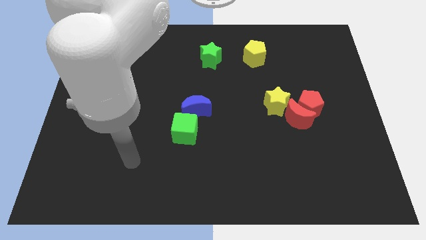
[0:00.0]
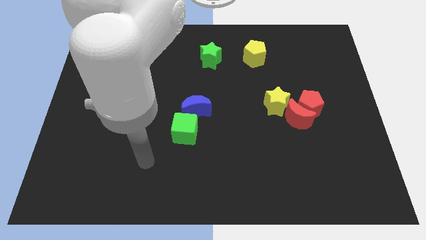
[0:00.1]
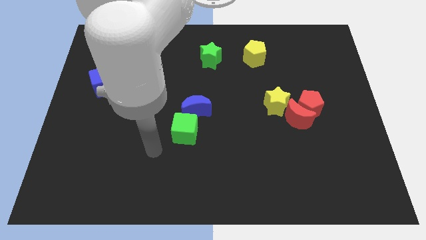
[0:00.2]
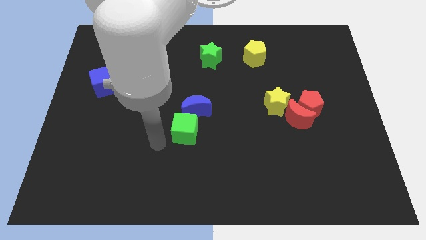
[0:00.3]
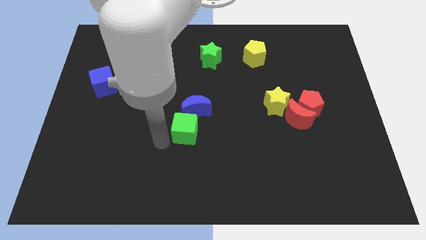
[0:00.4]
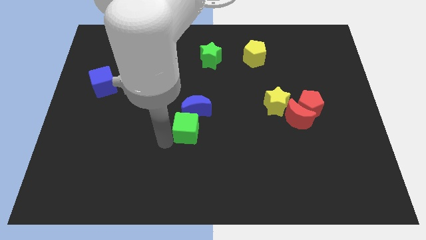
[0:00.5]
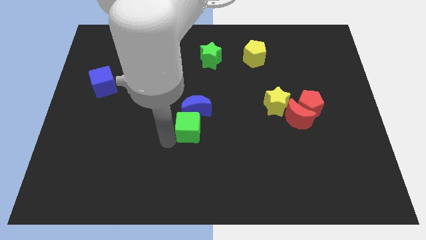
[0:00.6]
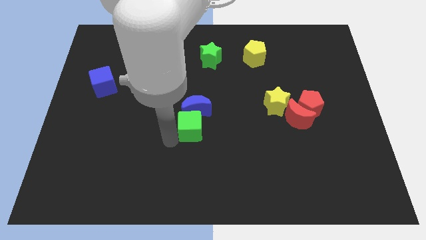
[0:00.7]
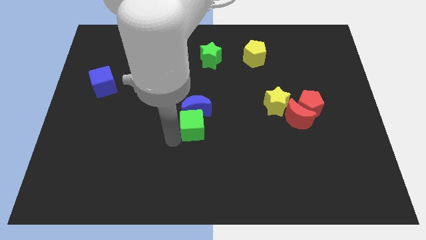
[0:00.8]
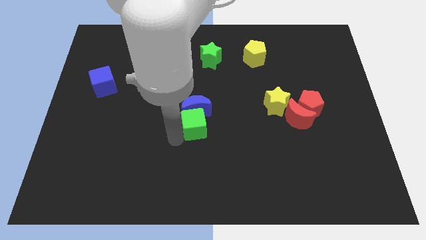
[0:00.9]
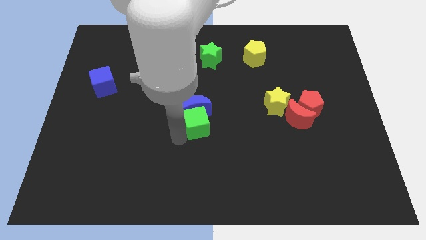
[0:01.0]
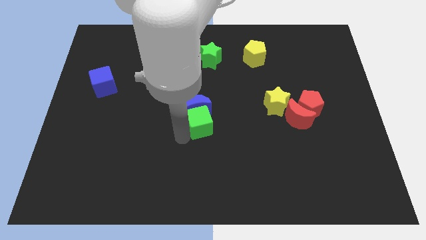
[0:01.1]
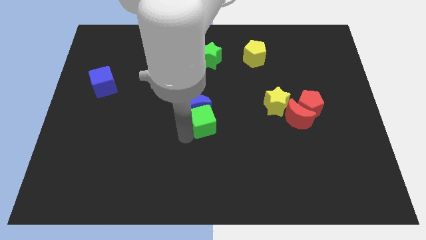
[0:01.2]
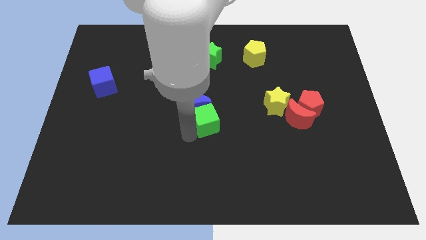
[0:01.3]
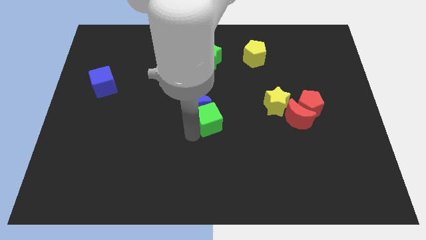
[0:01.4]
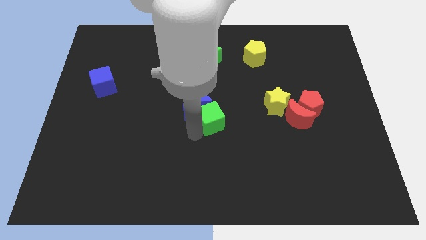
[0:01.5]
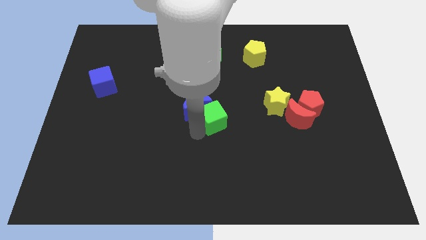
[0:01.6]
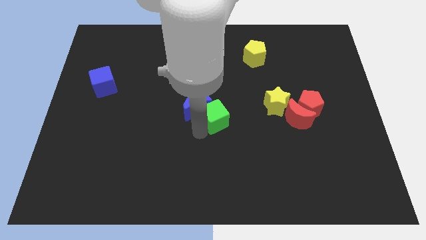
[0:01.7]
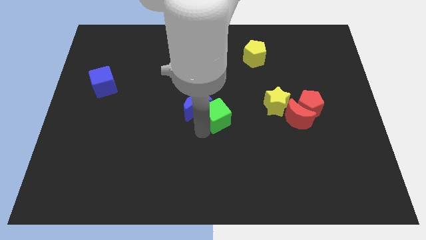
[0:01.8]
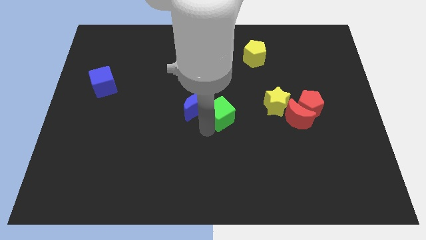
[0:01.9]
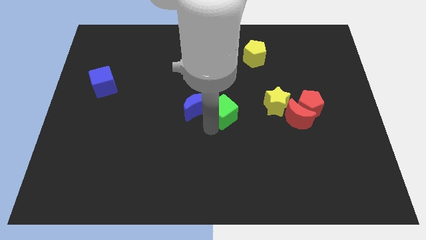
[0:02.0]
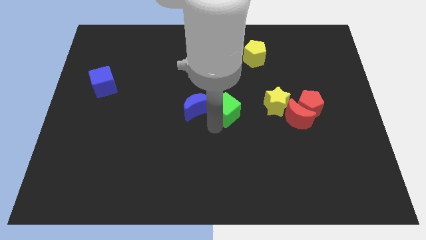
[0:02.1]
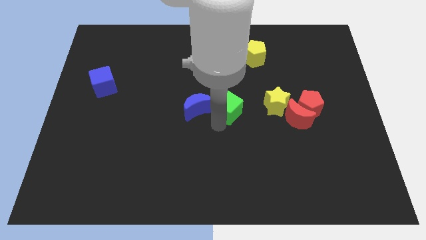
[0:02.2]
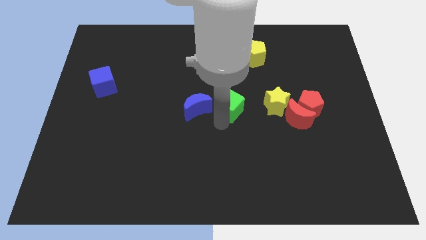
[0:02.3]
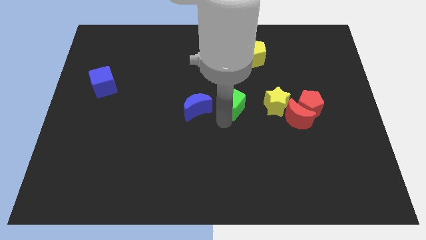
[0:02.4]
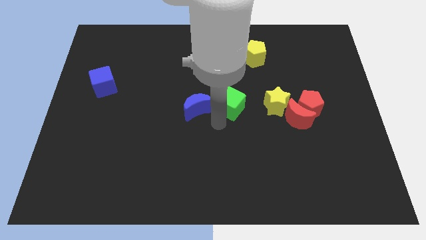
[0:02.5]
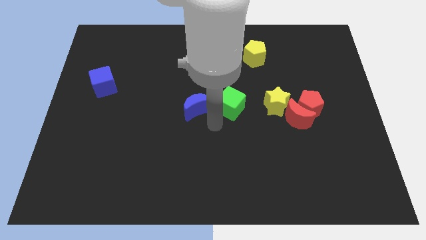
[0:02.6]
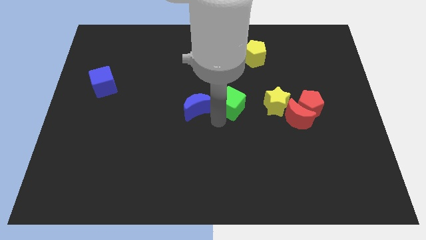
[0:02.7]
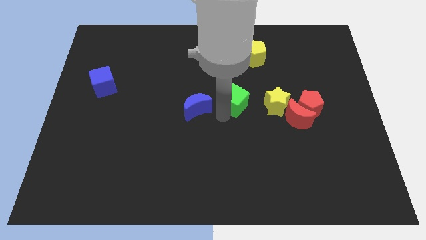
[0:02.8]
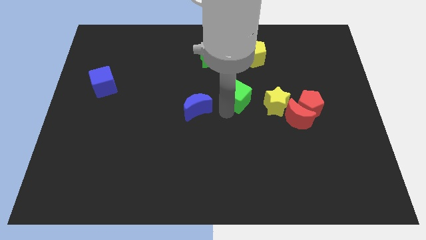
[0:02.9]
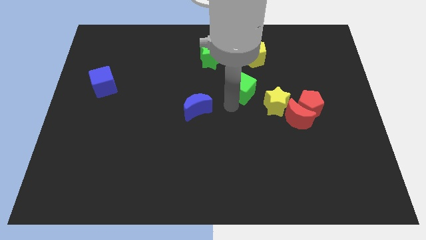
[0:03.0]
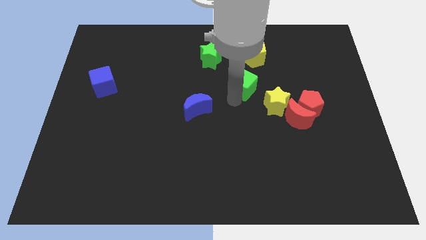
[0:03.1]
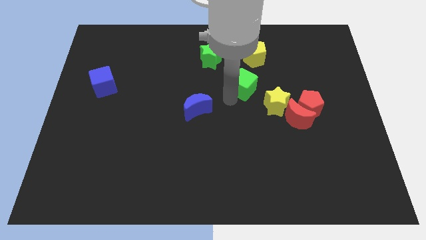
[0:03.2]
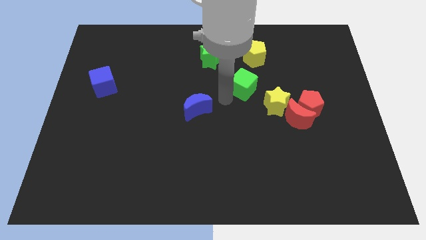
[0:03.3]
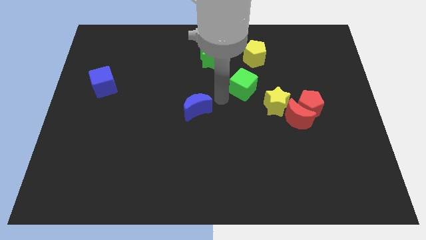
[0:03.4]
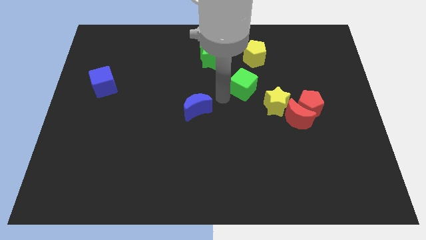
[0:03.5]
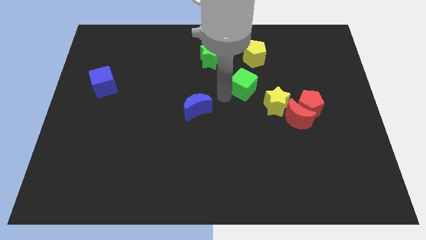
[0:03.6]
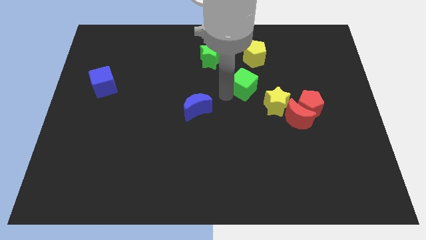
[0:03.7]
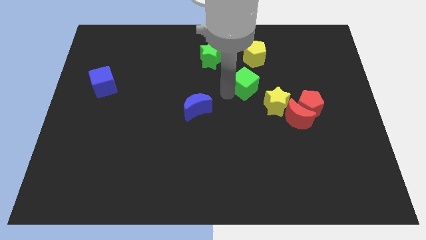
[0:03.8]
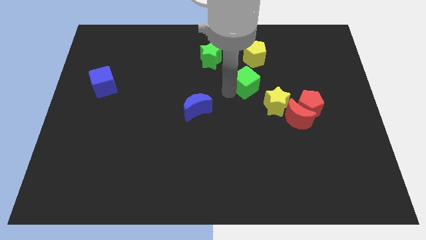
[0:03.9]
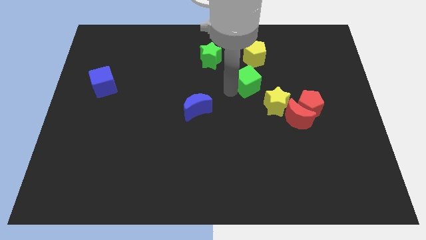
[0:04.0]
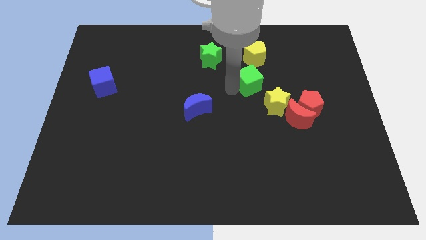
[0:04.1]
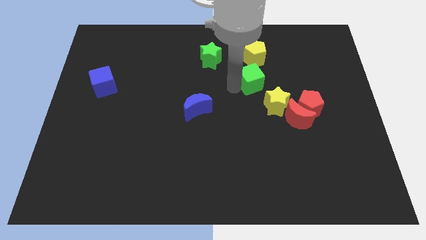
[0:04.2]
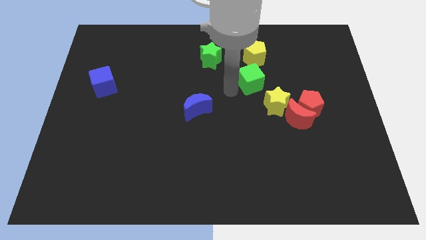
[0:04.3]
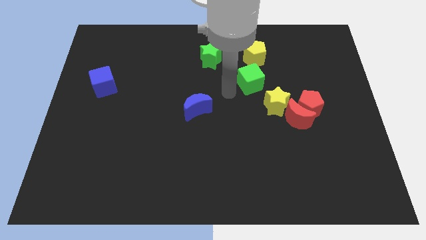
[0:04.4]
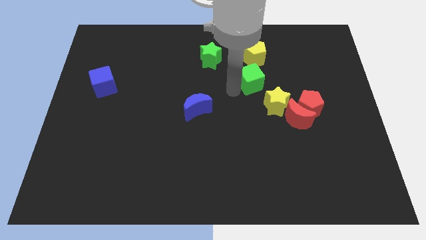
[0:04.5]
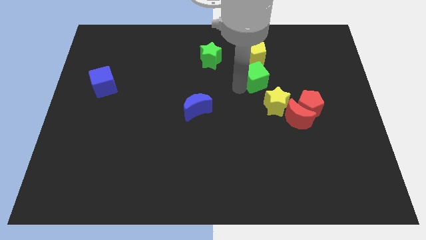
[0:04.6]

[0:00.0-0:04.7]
move the green cube above the yellow star

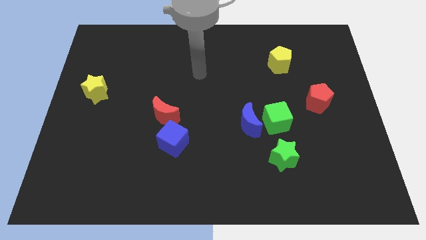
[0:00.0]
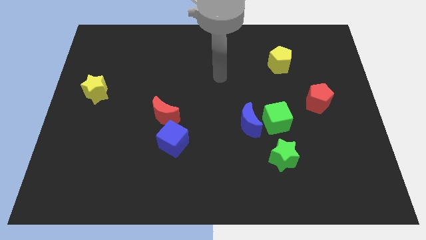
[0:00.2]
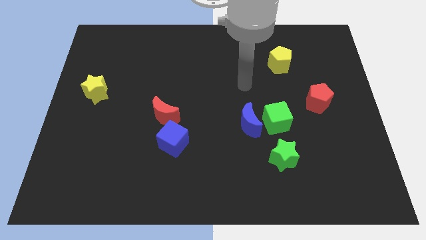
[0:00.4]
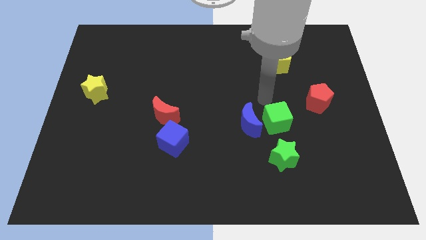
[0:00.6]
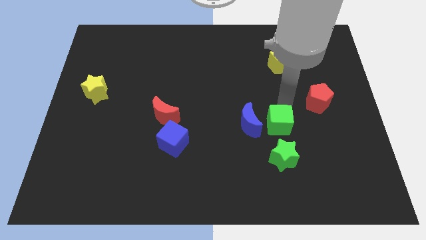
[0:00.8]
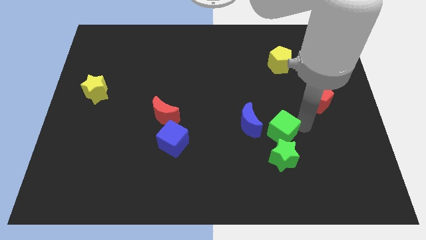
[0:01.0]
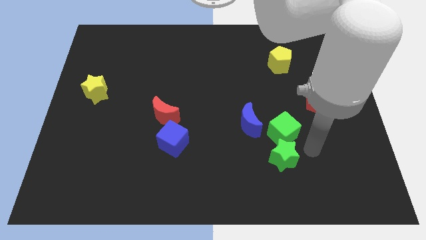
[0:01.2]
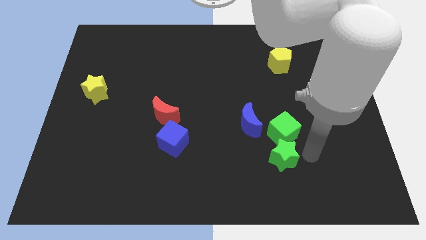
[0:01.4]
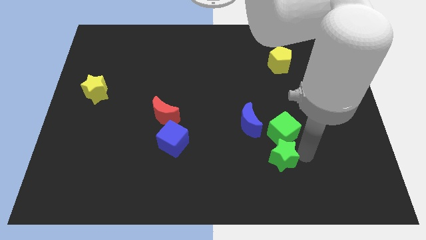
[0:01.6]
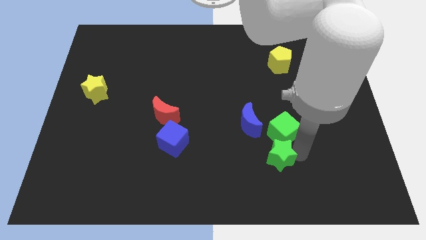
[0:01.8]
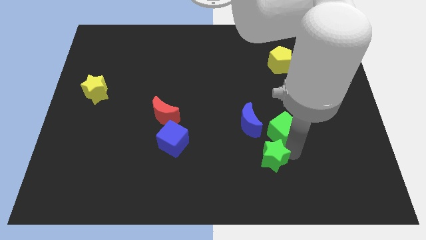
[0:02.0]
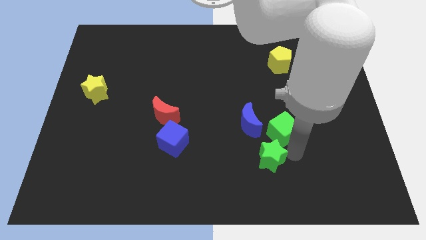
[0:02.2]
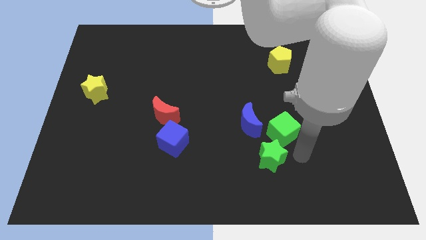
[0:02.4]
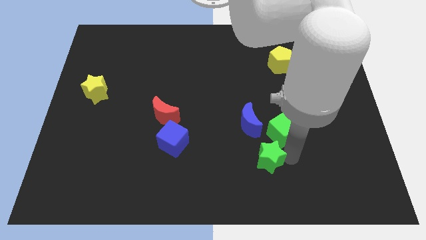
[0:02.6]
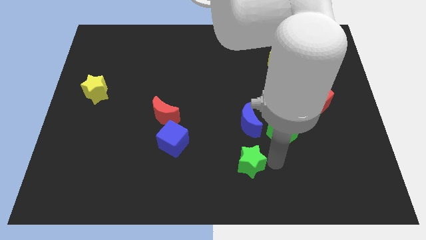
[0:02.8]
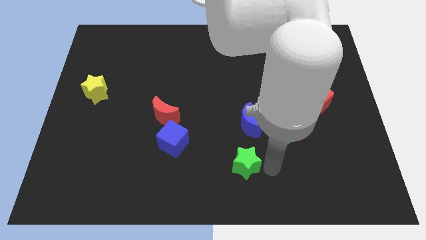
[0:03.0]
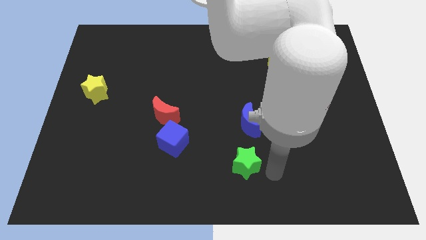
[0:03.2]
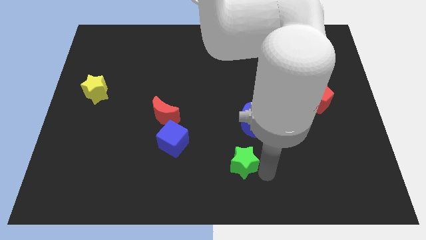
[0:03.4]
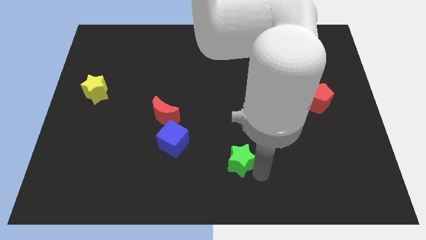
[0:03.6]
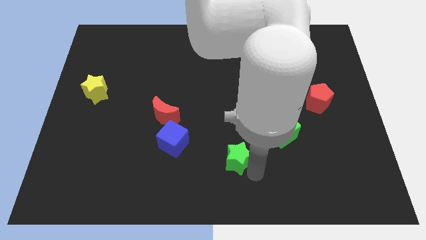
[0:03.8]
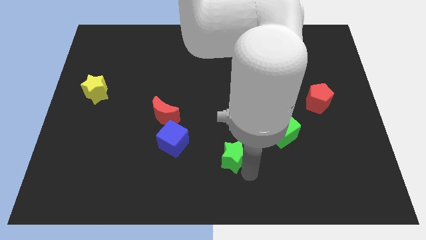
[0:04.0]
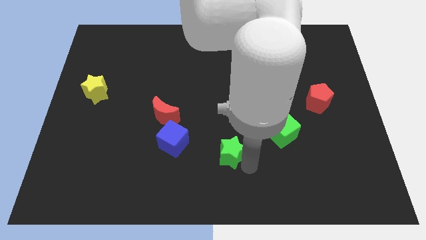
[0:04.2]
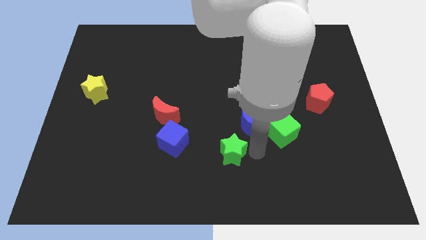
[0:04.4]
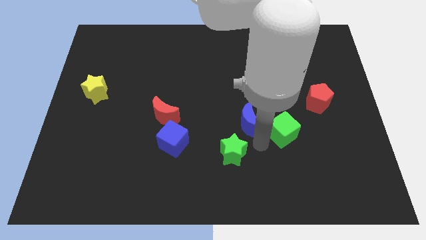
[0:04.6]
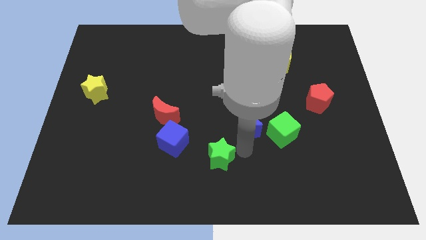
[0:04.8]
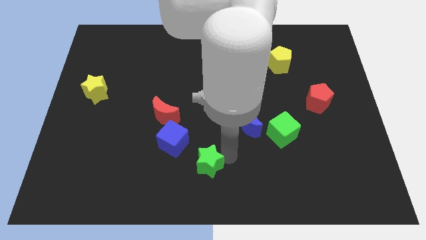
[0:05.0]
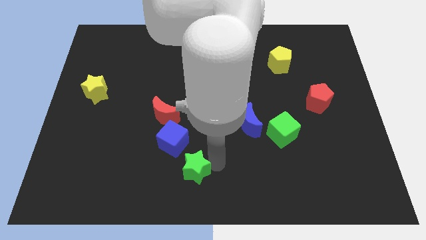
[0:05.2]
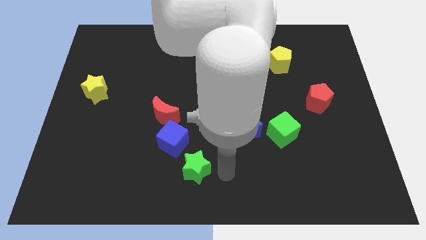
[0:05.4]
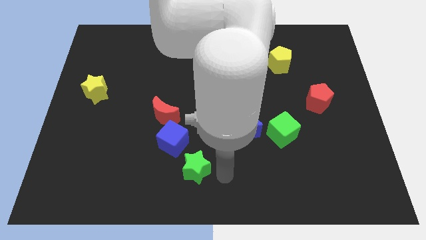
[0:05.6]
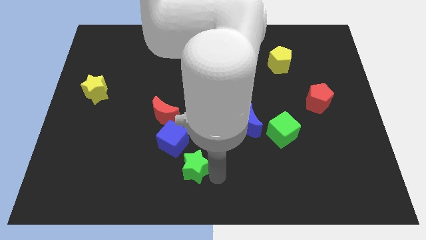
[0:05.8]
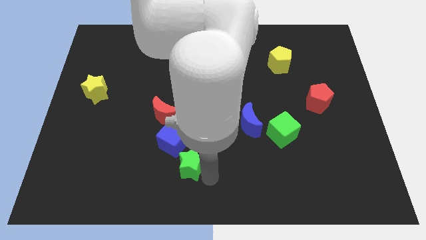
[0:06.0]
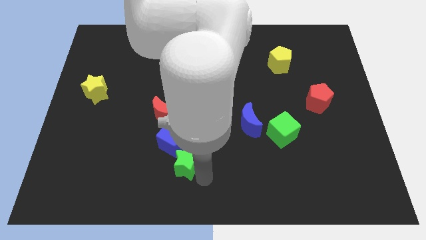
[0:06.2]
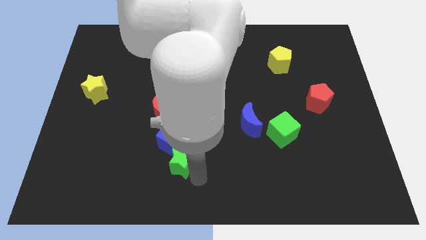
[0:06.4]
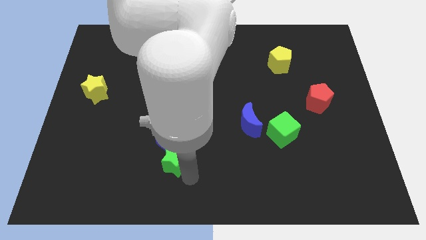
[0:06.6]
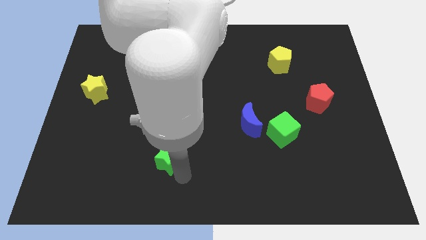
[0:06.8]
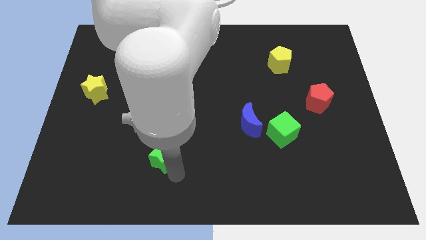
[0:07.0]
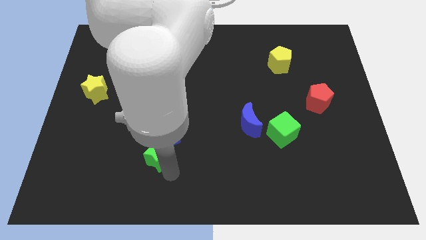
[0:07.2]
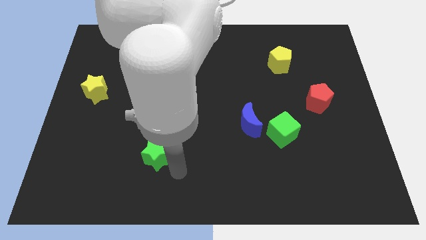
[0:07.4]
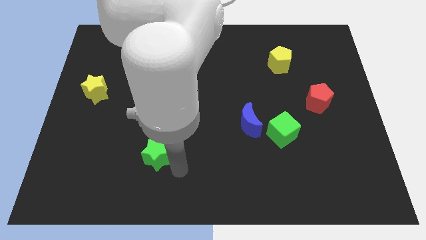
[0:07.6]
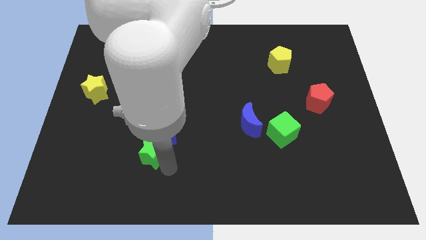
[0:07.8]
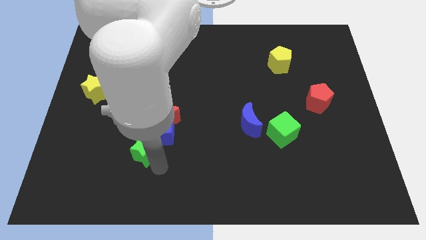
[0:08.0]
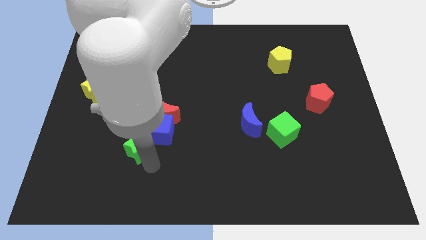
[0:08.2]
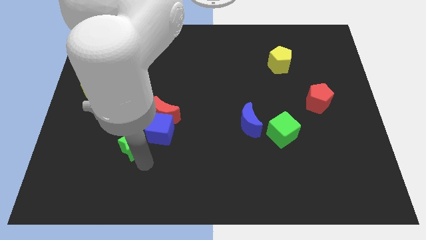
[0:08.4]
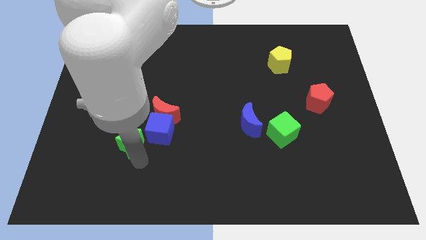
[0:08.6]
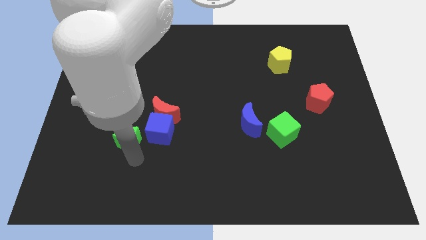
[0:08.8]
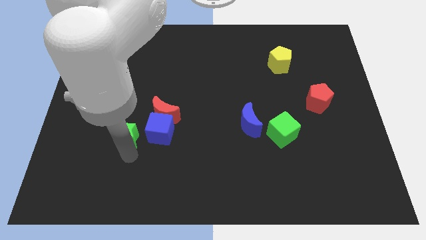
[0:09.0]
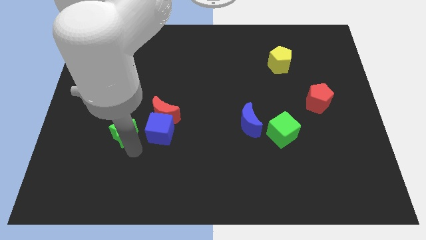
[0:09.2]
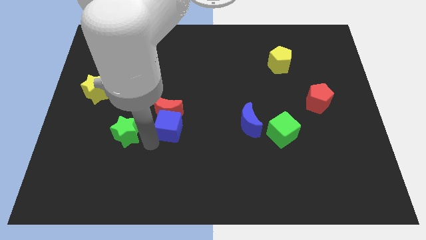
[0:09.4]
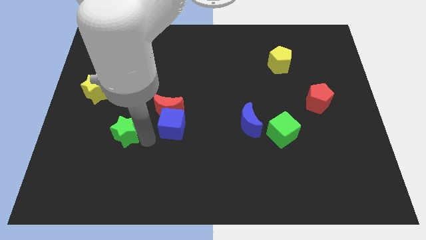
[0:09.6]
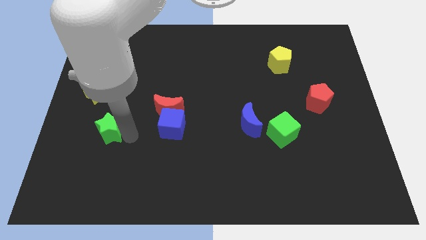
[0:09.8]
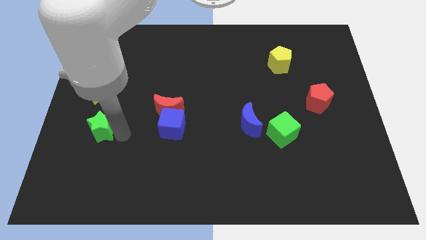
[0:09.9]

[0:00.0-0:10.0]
put the green star below the yellow star
